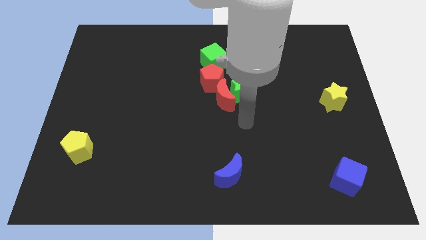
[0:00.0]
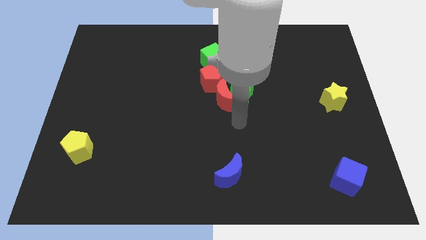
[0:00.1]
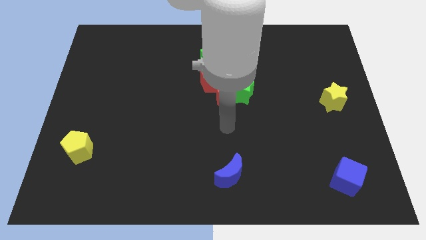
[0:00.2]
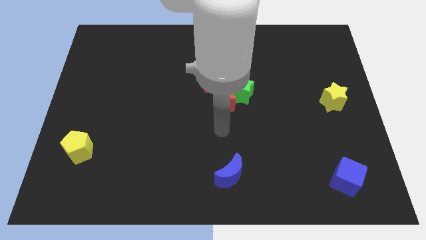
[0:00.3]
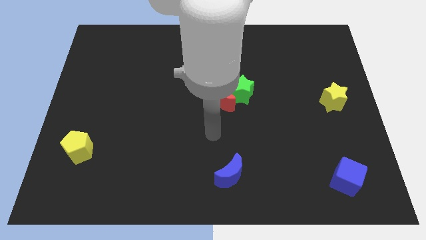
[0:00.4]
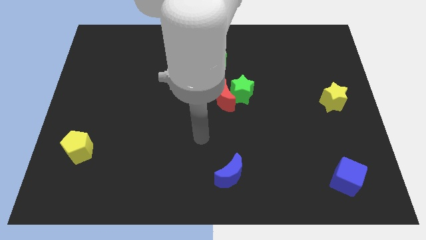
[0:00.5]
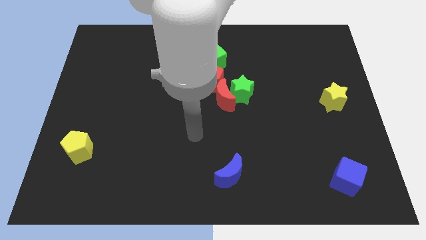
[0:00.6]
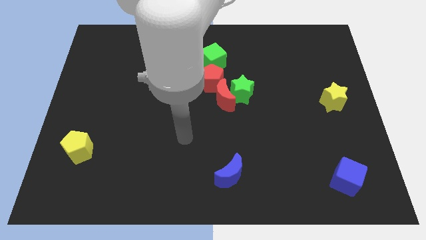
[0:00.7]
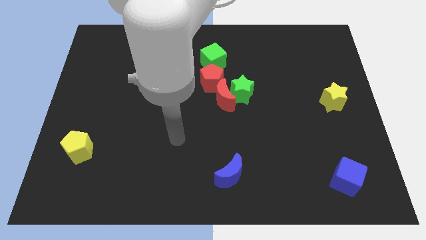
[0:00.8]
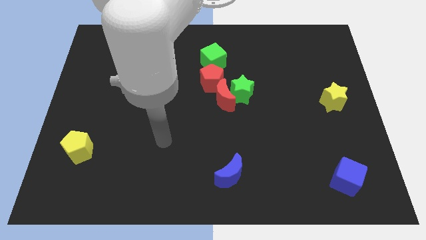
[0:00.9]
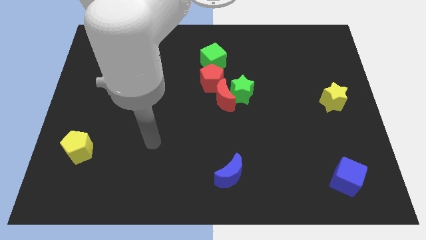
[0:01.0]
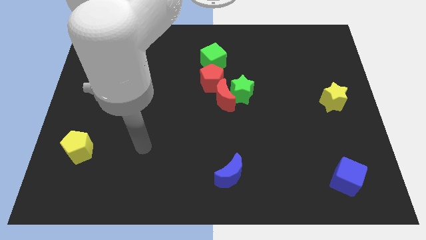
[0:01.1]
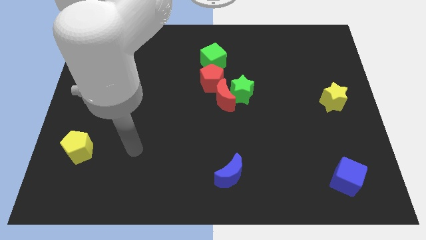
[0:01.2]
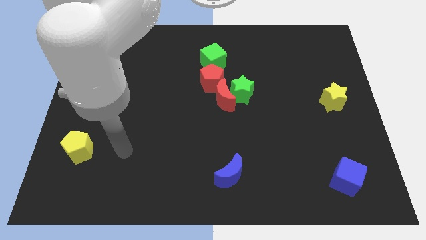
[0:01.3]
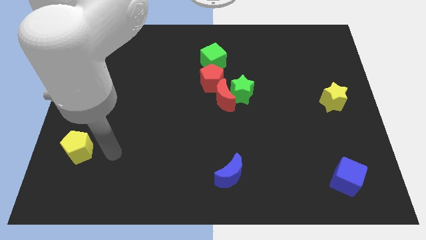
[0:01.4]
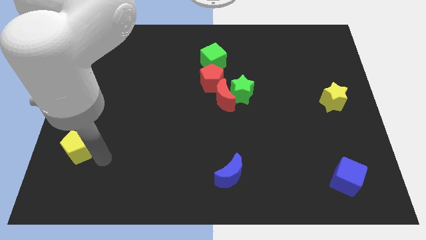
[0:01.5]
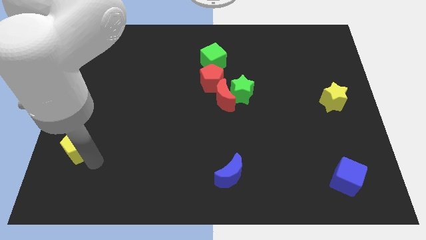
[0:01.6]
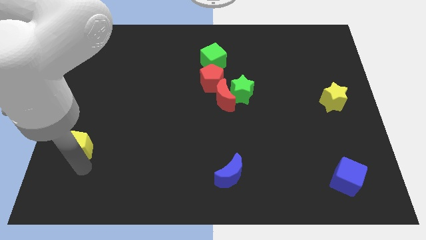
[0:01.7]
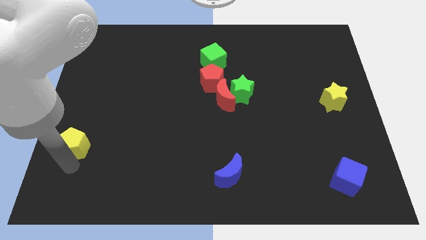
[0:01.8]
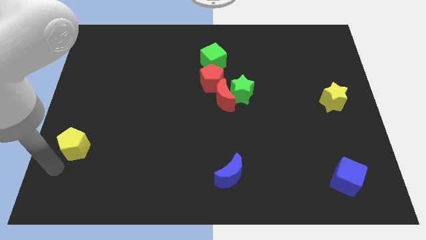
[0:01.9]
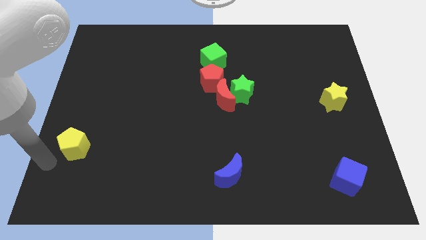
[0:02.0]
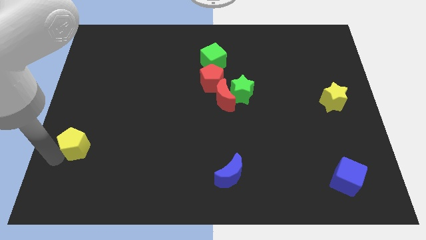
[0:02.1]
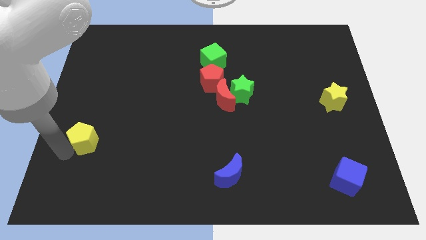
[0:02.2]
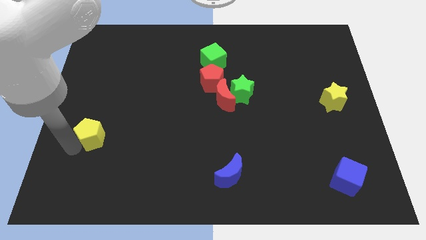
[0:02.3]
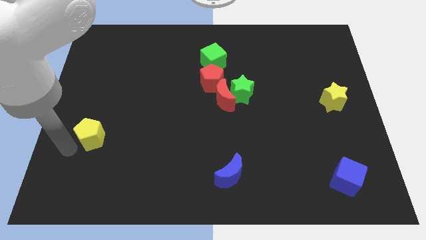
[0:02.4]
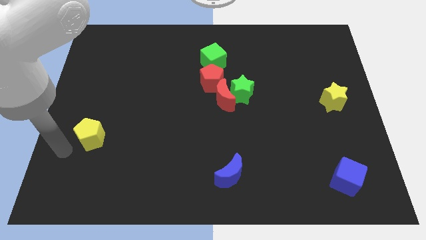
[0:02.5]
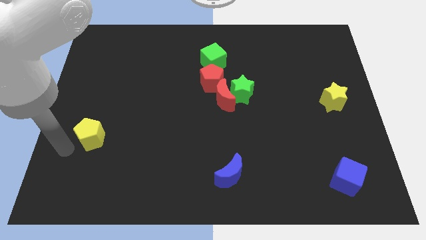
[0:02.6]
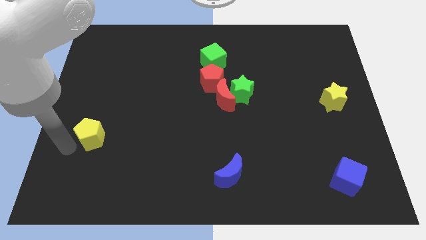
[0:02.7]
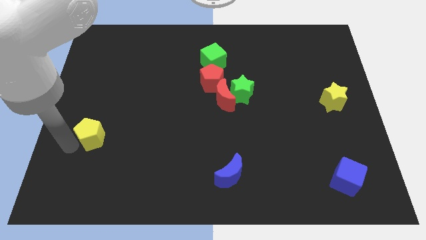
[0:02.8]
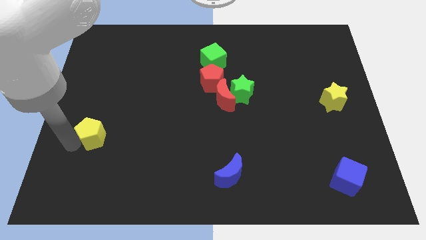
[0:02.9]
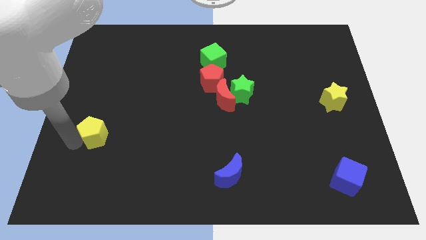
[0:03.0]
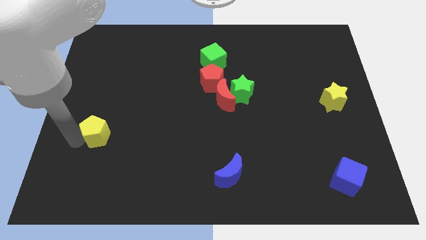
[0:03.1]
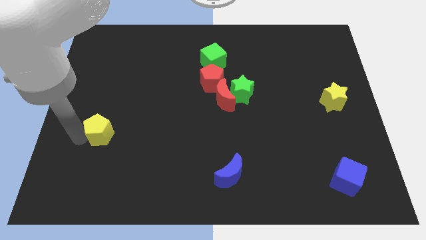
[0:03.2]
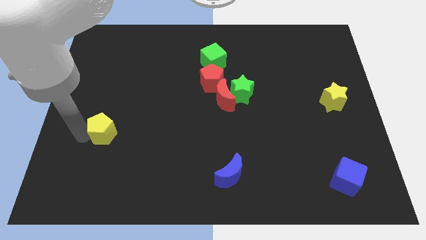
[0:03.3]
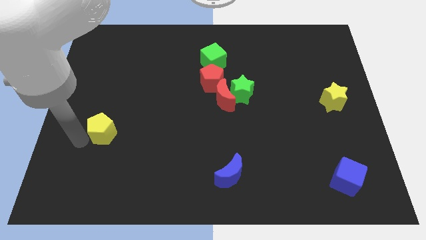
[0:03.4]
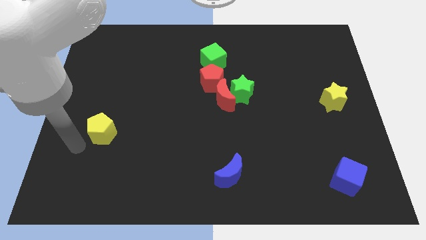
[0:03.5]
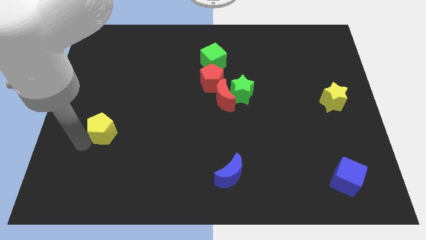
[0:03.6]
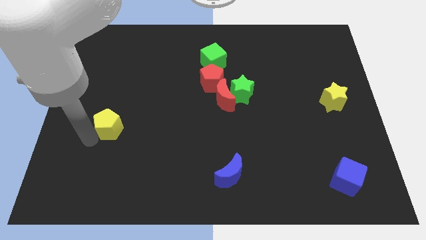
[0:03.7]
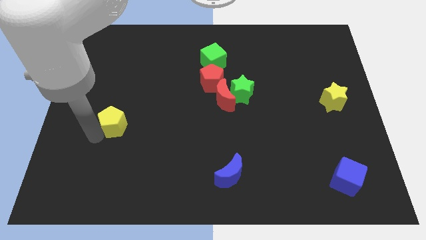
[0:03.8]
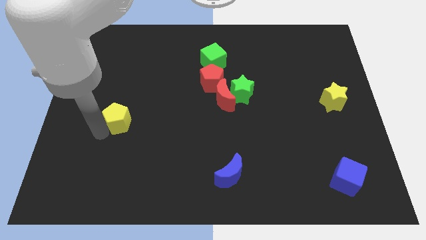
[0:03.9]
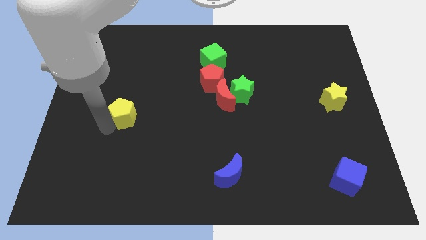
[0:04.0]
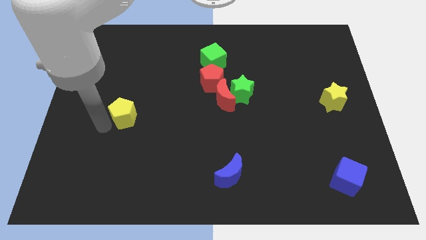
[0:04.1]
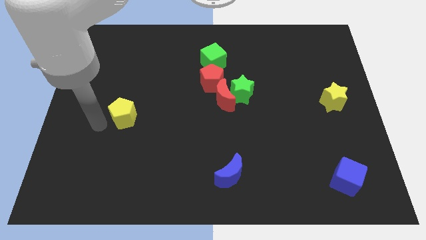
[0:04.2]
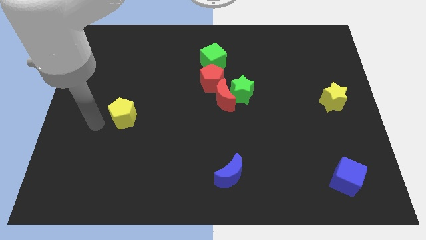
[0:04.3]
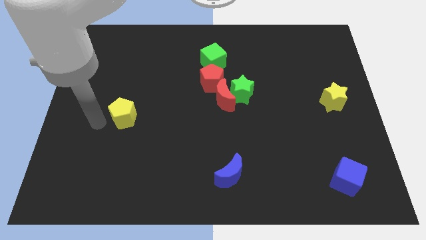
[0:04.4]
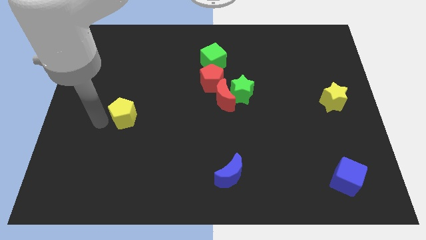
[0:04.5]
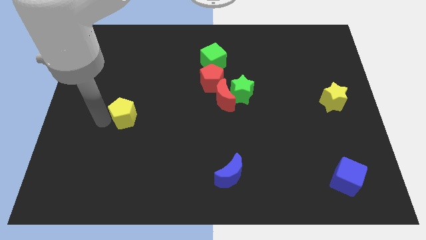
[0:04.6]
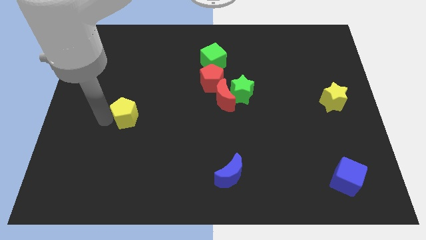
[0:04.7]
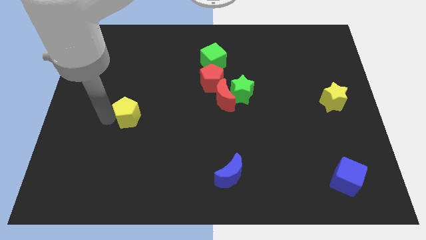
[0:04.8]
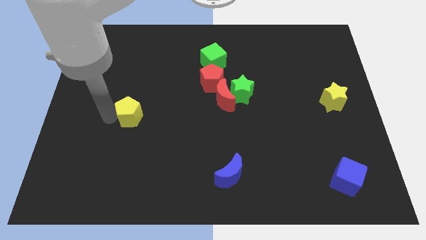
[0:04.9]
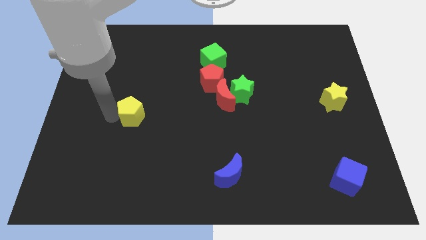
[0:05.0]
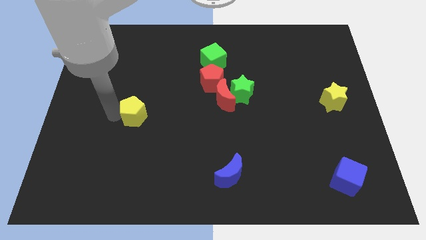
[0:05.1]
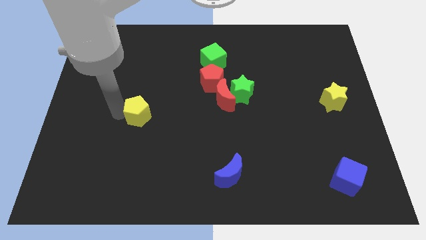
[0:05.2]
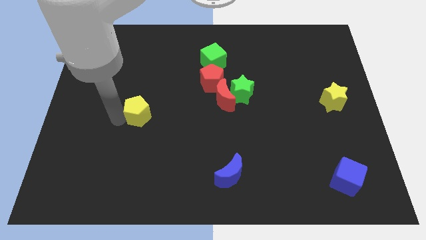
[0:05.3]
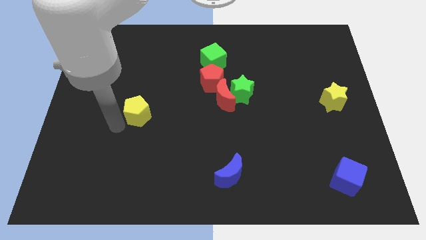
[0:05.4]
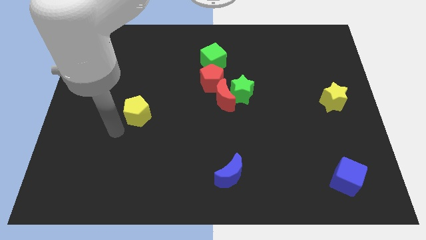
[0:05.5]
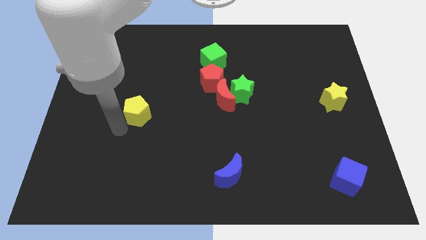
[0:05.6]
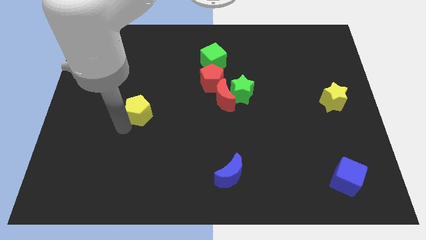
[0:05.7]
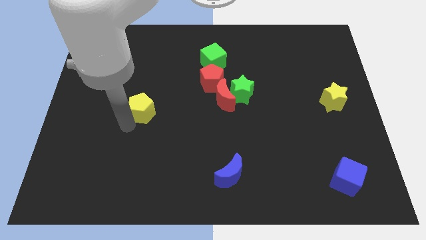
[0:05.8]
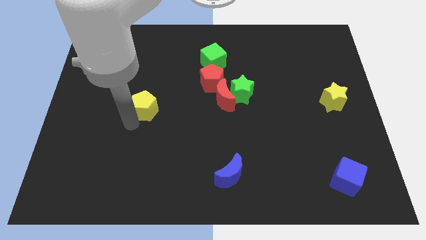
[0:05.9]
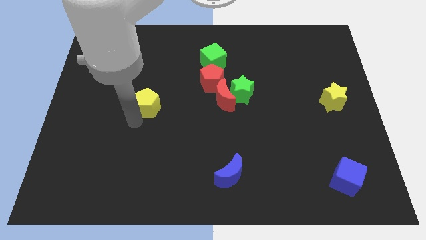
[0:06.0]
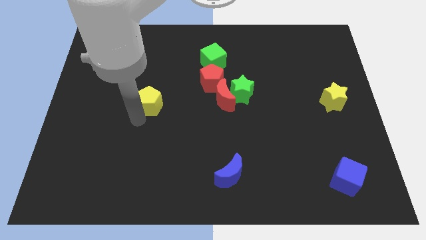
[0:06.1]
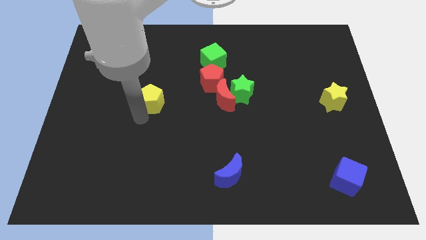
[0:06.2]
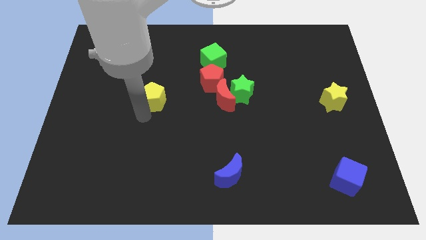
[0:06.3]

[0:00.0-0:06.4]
slide the yellow pentagon upwards and then right

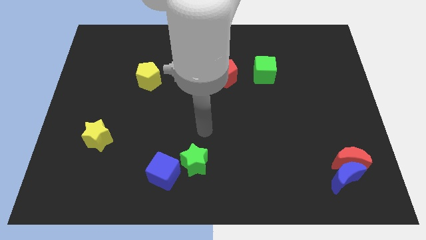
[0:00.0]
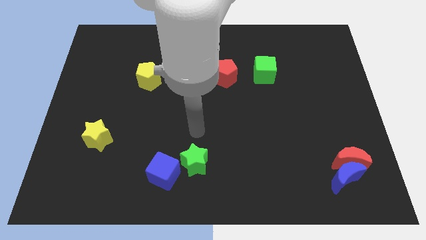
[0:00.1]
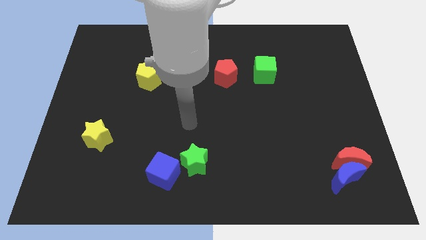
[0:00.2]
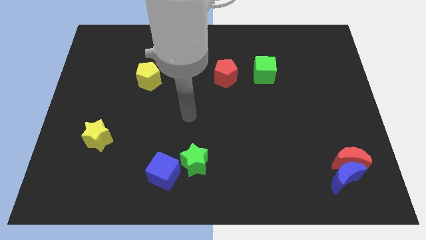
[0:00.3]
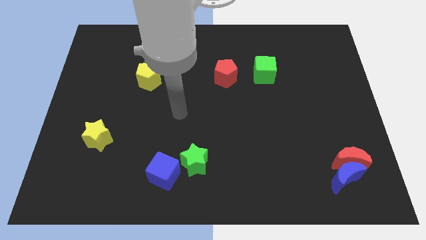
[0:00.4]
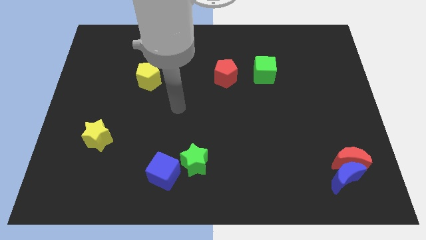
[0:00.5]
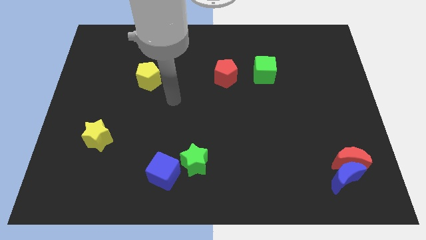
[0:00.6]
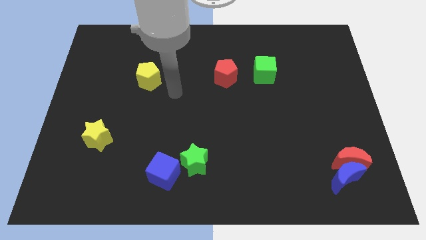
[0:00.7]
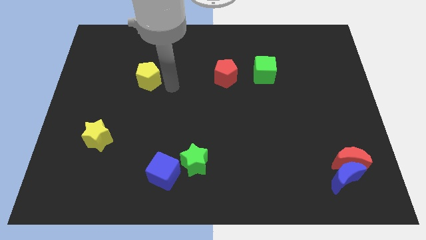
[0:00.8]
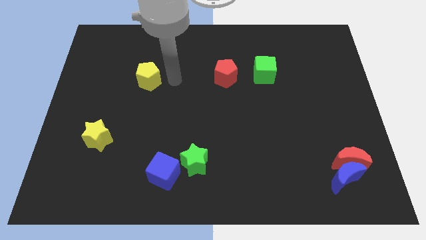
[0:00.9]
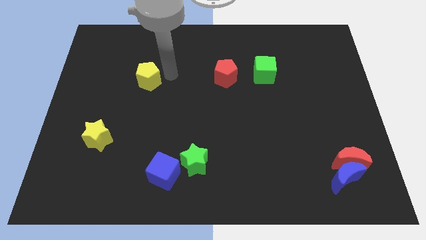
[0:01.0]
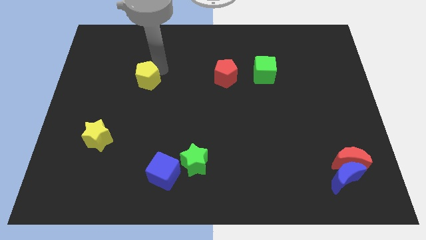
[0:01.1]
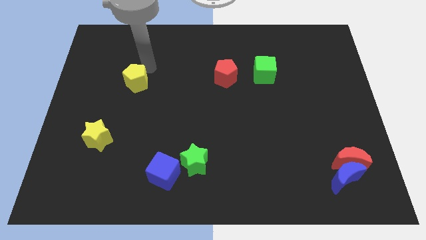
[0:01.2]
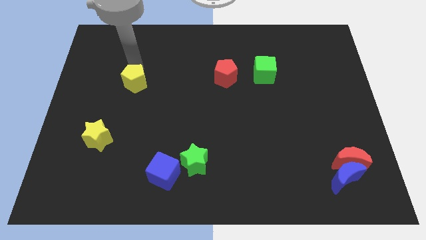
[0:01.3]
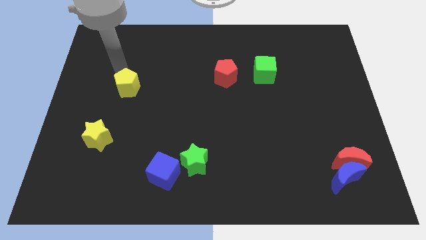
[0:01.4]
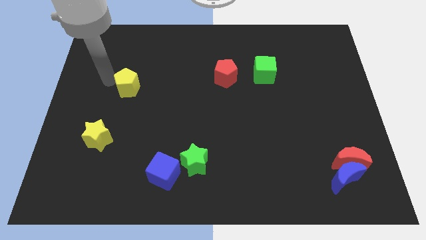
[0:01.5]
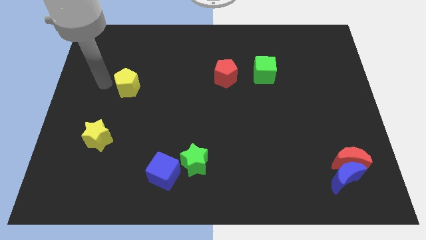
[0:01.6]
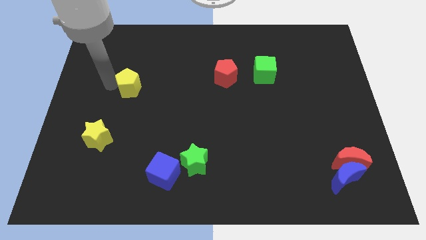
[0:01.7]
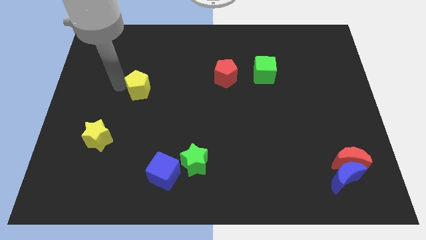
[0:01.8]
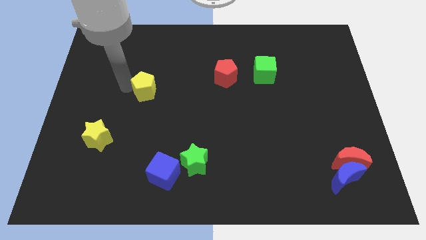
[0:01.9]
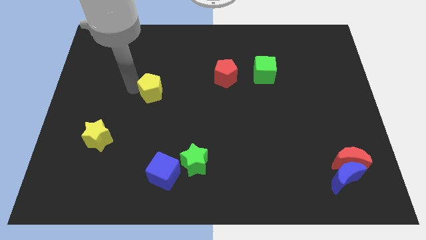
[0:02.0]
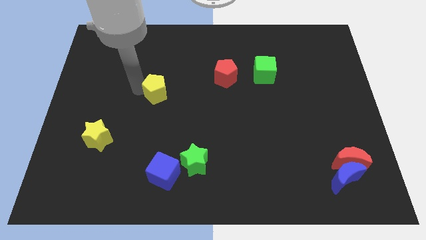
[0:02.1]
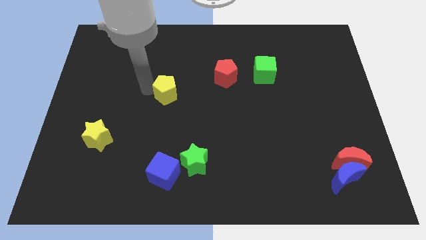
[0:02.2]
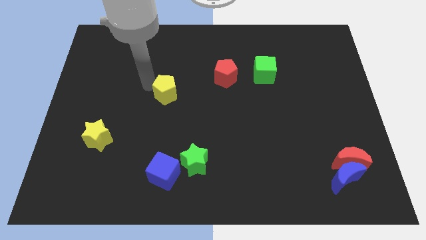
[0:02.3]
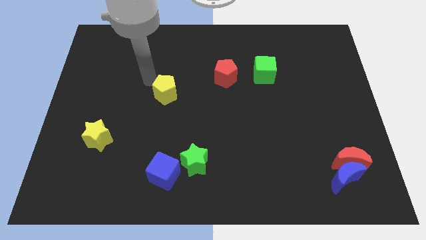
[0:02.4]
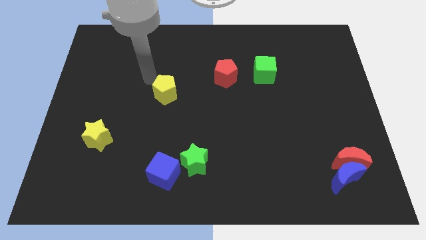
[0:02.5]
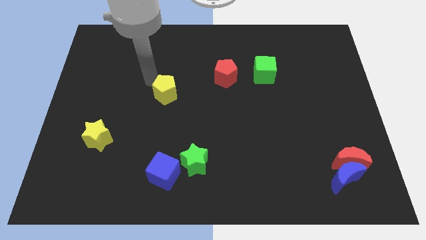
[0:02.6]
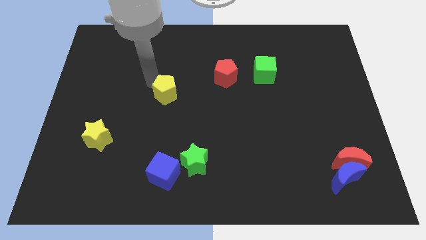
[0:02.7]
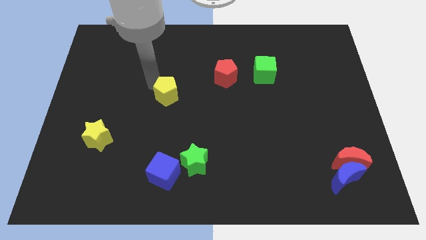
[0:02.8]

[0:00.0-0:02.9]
move the yellow pentagon diagonally downwards and right a little bit
